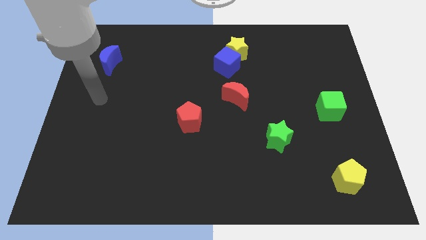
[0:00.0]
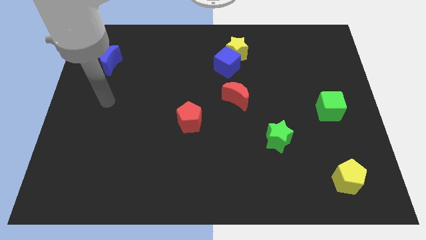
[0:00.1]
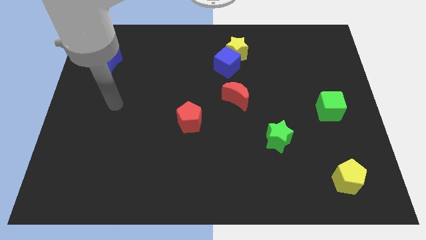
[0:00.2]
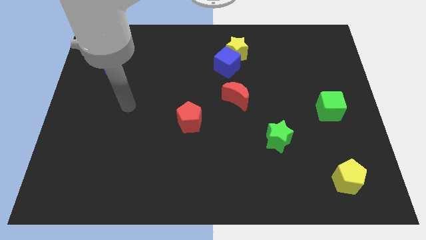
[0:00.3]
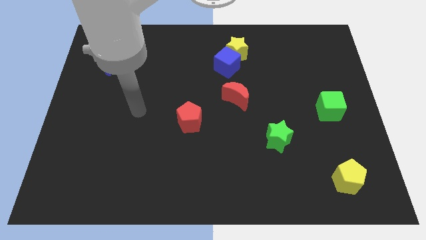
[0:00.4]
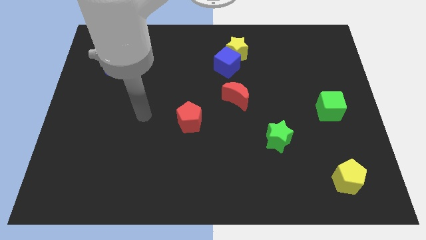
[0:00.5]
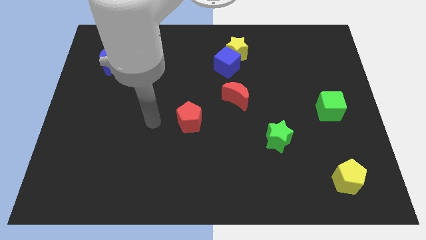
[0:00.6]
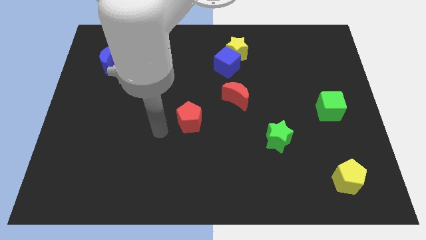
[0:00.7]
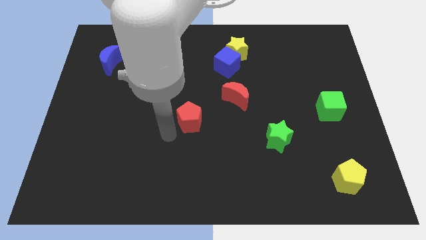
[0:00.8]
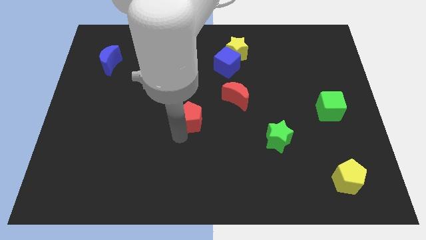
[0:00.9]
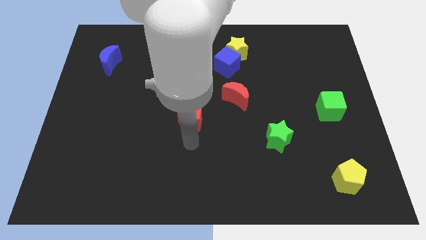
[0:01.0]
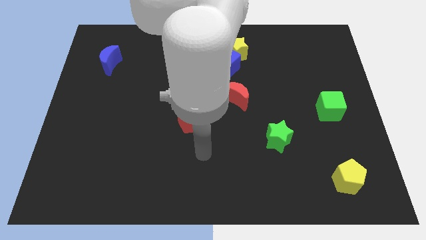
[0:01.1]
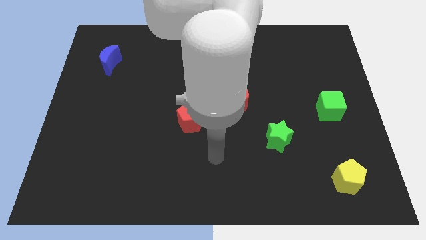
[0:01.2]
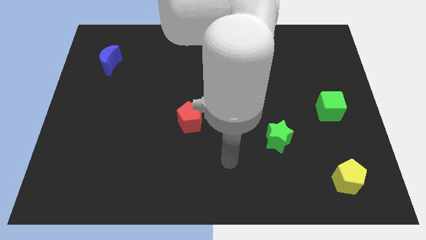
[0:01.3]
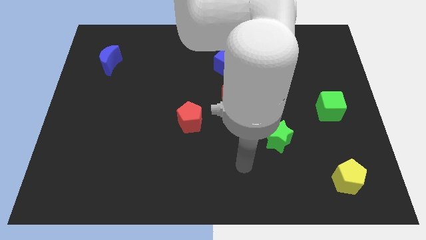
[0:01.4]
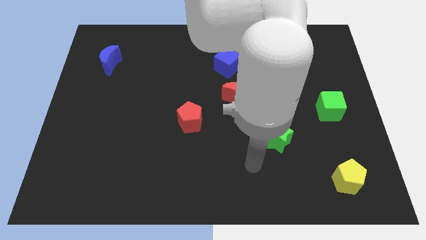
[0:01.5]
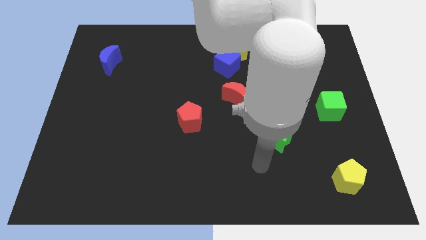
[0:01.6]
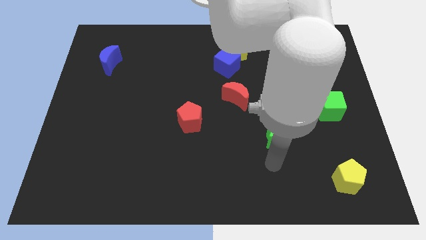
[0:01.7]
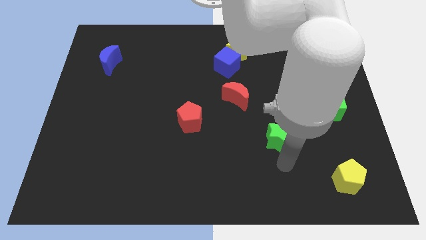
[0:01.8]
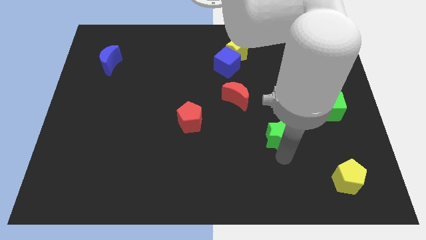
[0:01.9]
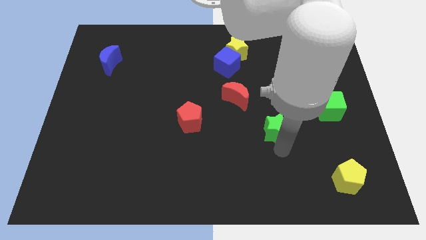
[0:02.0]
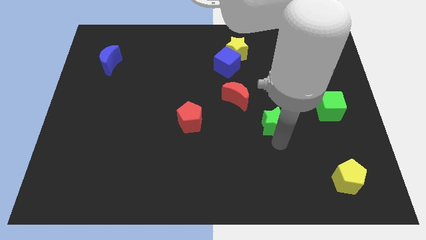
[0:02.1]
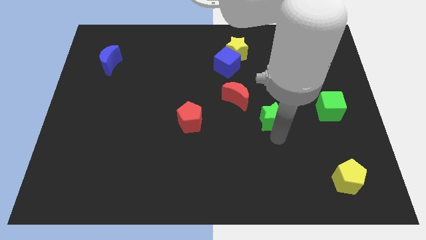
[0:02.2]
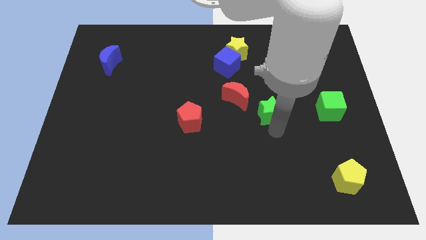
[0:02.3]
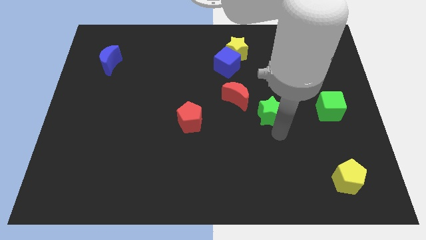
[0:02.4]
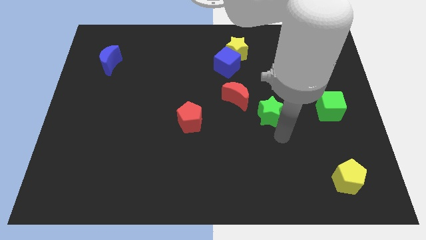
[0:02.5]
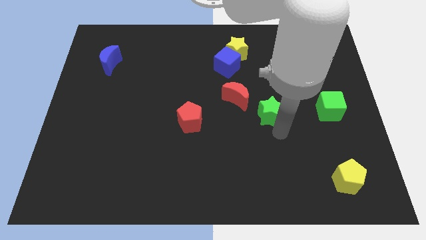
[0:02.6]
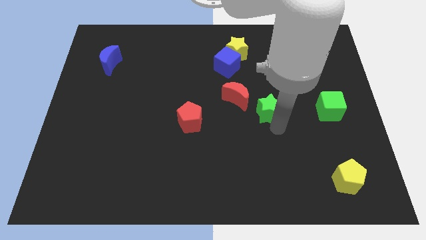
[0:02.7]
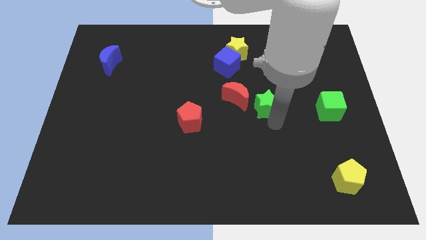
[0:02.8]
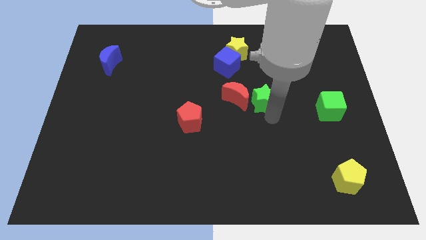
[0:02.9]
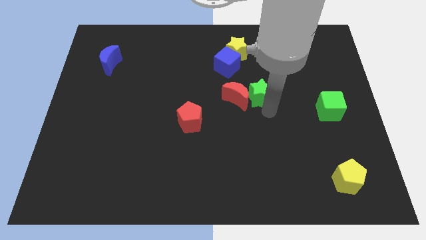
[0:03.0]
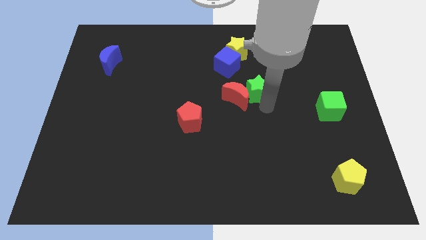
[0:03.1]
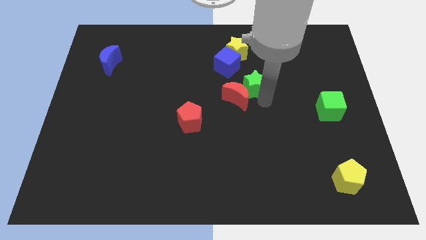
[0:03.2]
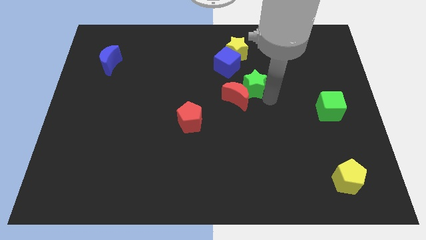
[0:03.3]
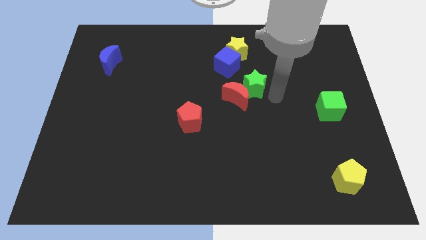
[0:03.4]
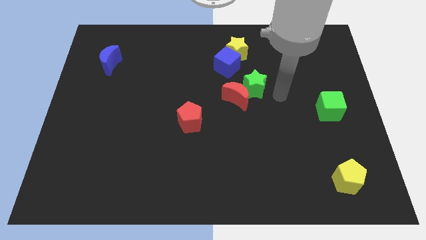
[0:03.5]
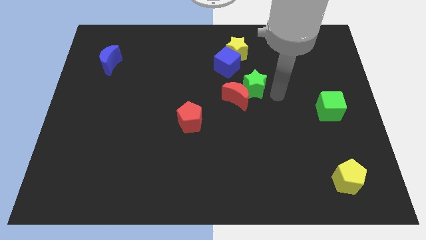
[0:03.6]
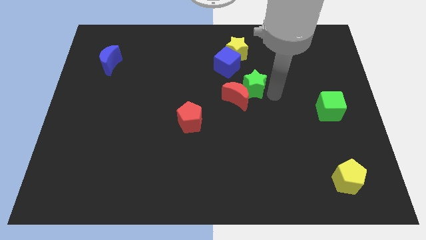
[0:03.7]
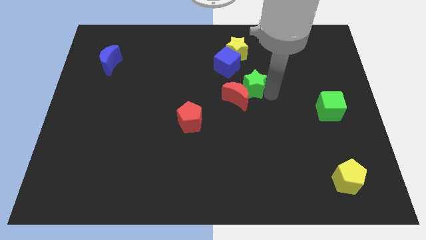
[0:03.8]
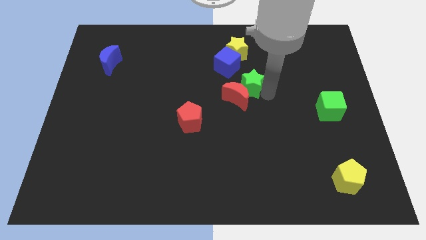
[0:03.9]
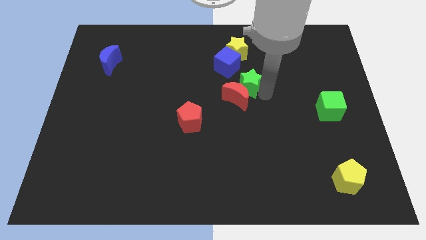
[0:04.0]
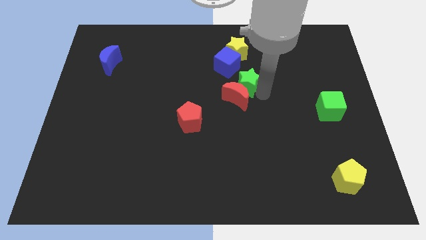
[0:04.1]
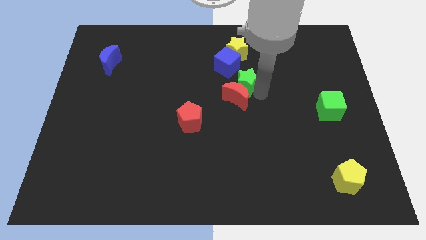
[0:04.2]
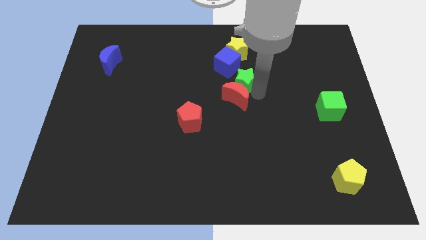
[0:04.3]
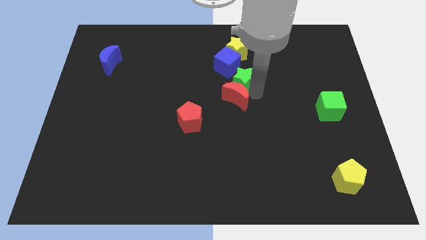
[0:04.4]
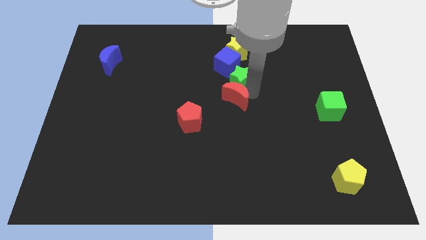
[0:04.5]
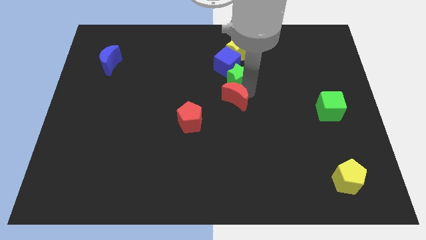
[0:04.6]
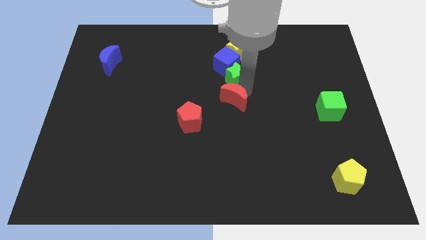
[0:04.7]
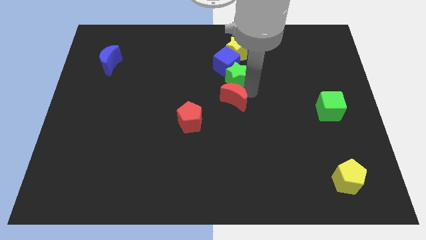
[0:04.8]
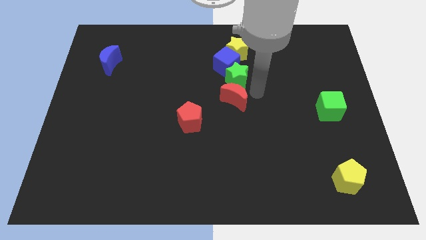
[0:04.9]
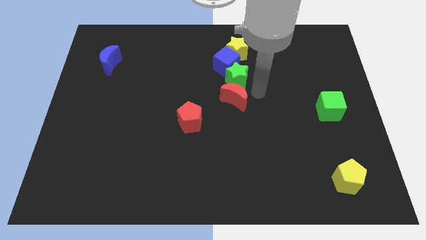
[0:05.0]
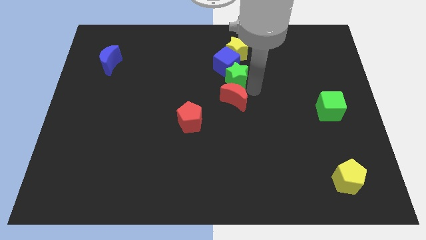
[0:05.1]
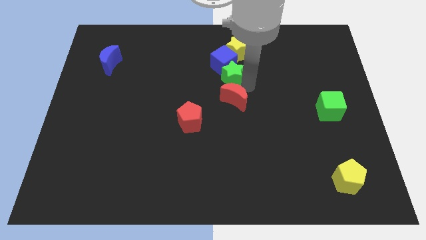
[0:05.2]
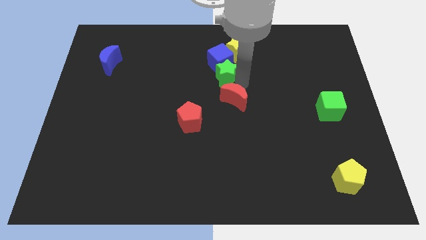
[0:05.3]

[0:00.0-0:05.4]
move the green star to the bottom left side of the yellow star

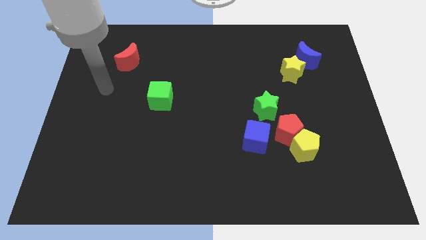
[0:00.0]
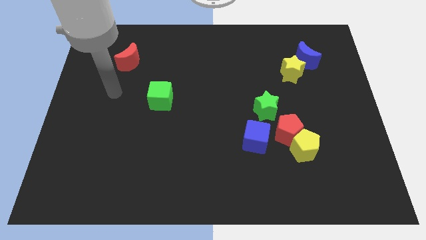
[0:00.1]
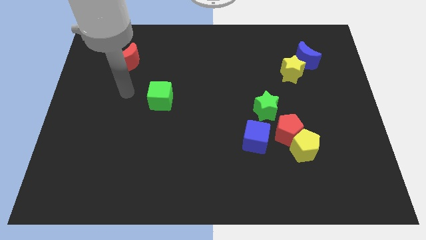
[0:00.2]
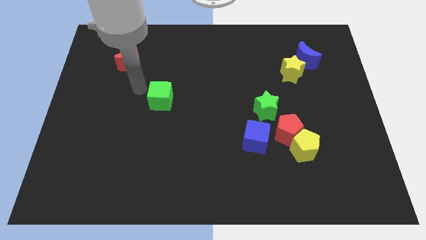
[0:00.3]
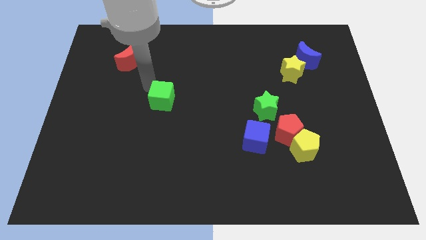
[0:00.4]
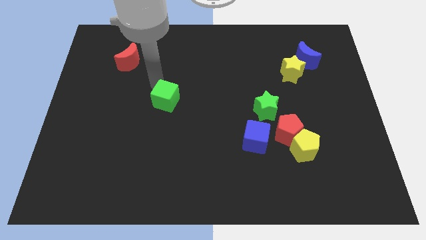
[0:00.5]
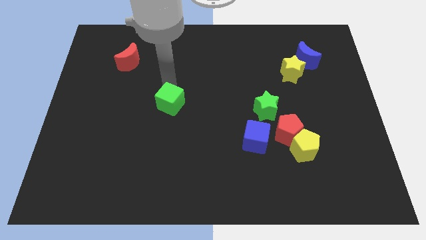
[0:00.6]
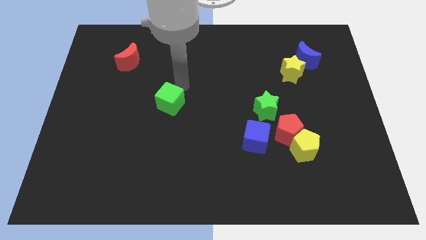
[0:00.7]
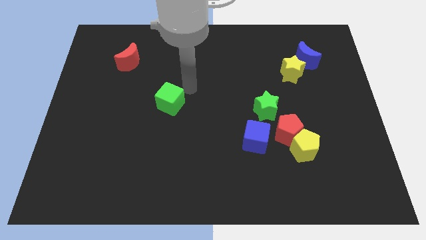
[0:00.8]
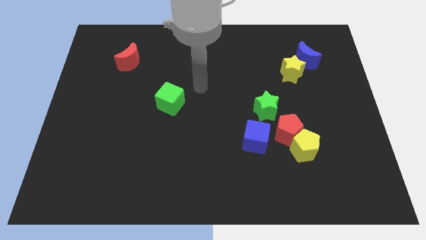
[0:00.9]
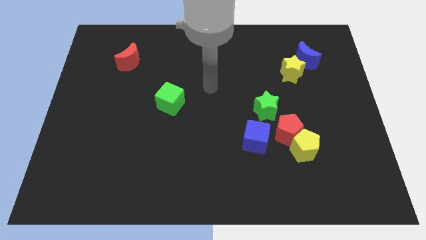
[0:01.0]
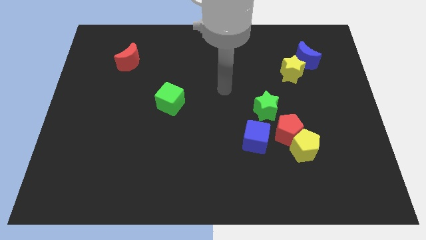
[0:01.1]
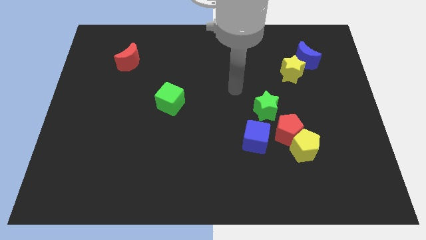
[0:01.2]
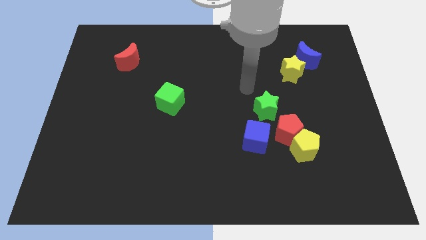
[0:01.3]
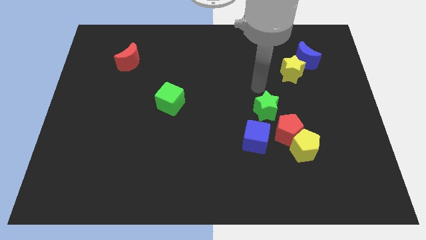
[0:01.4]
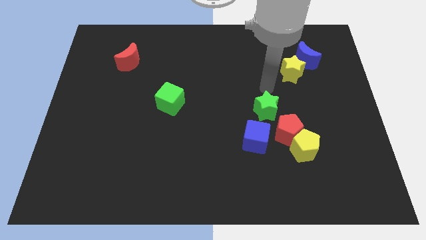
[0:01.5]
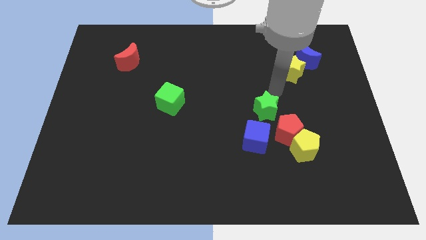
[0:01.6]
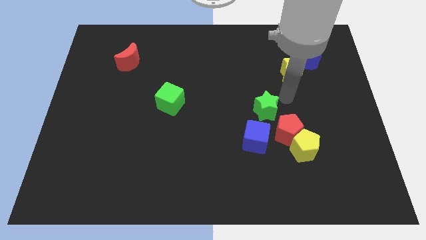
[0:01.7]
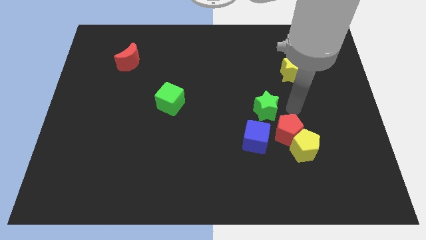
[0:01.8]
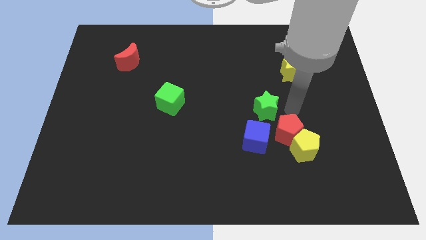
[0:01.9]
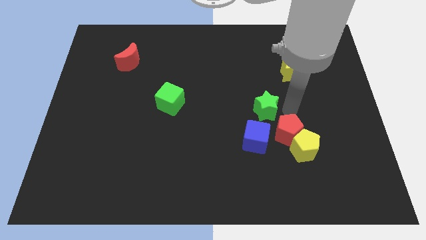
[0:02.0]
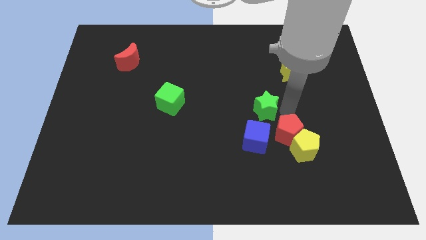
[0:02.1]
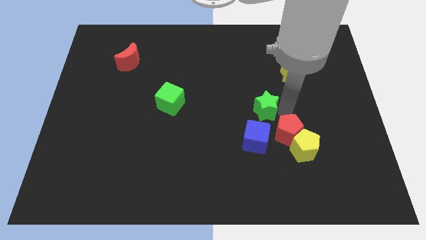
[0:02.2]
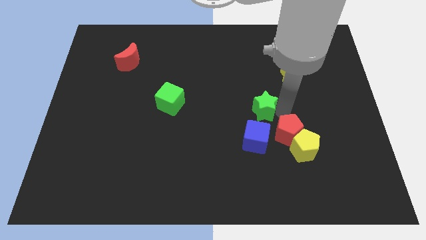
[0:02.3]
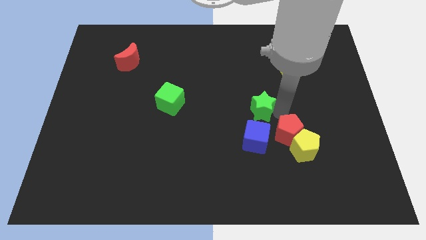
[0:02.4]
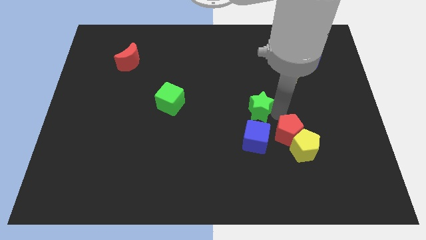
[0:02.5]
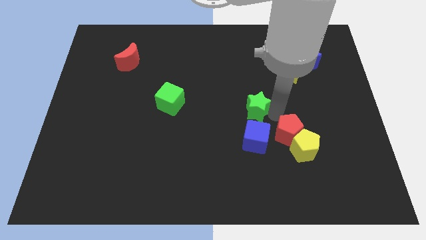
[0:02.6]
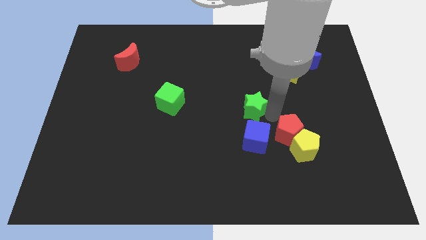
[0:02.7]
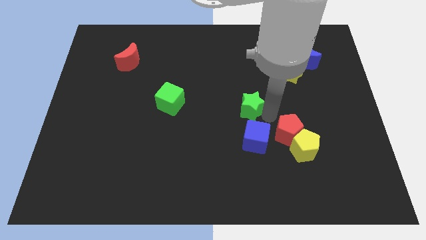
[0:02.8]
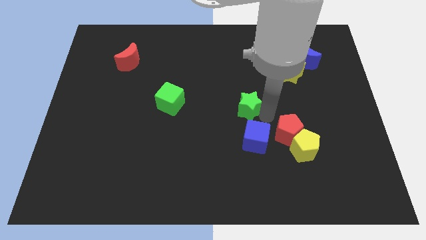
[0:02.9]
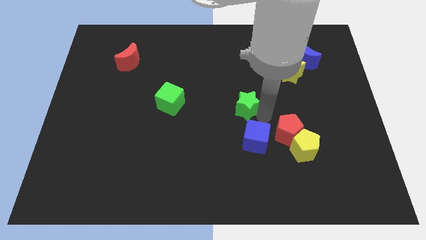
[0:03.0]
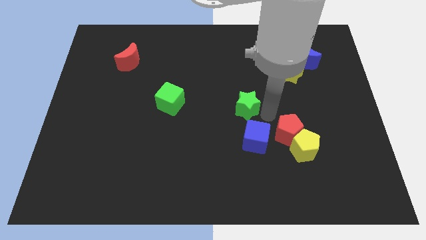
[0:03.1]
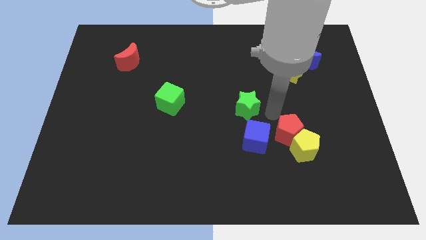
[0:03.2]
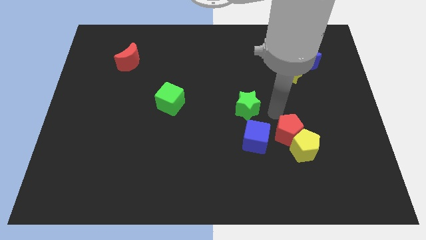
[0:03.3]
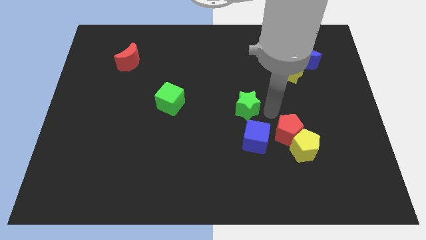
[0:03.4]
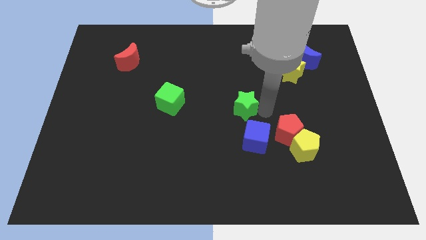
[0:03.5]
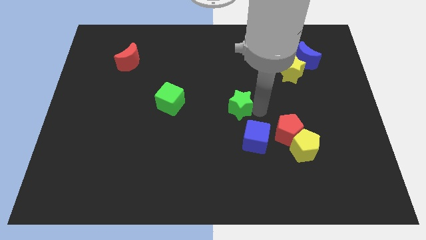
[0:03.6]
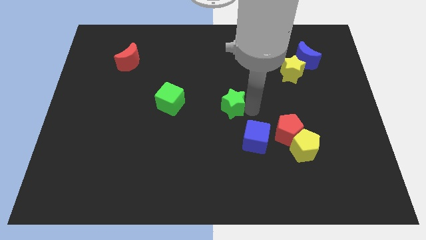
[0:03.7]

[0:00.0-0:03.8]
push the green star to the right side of the green cube
